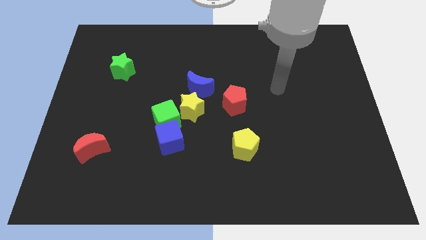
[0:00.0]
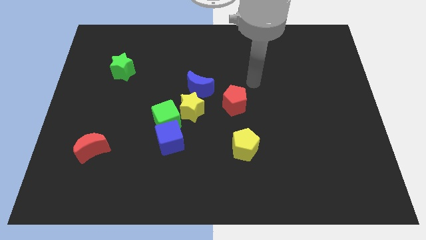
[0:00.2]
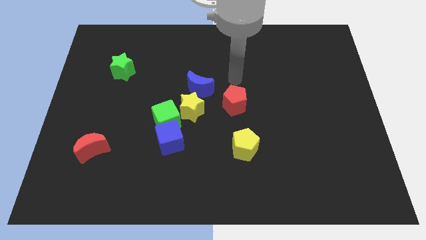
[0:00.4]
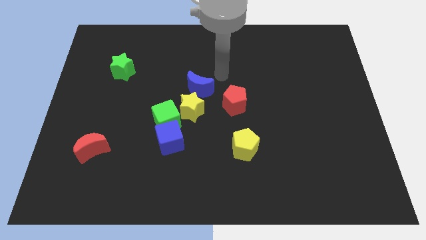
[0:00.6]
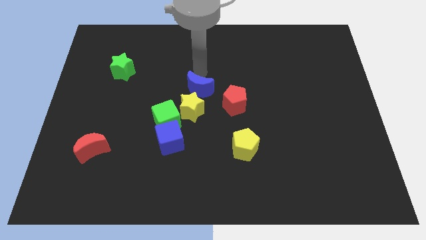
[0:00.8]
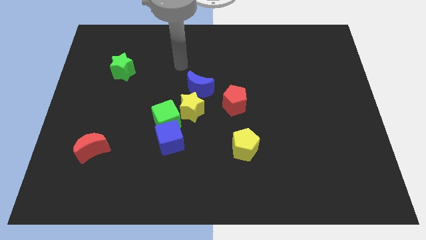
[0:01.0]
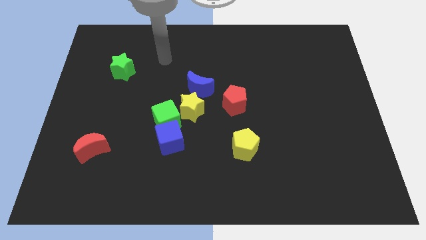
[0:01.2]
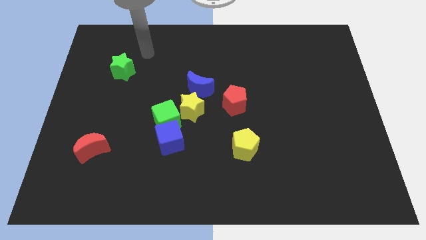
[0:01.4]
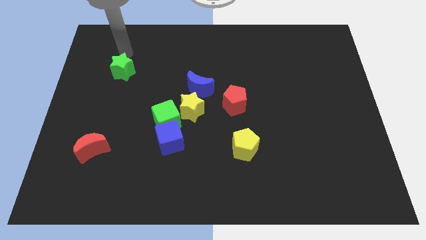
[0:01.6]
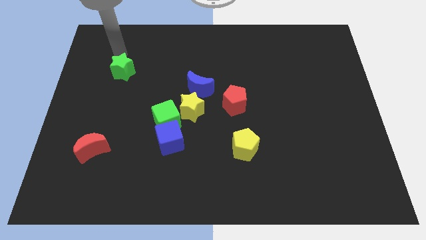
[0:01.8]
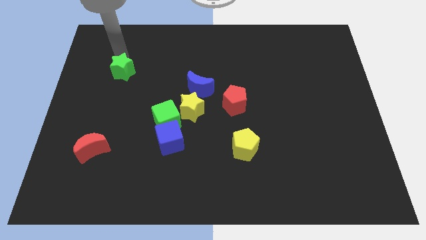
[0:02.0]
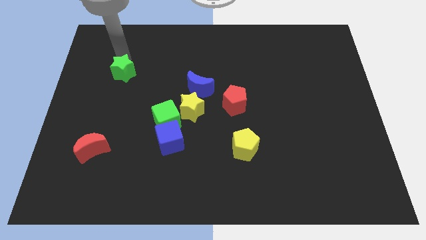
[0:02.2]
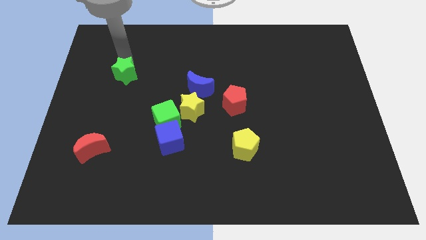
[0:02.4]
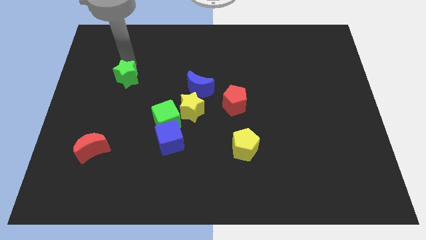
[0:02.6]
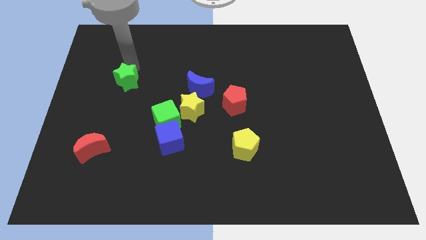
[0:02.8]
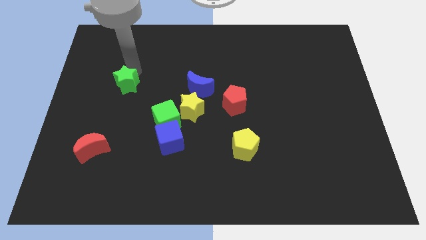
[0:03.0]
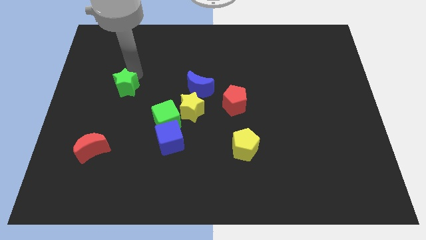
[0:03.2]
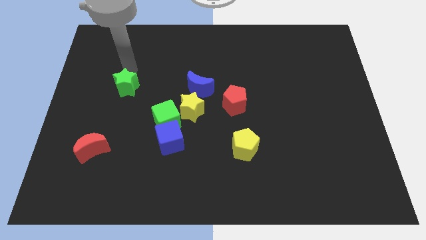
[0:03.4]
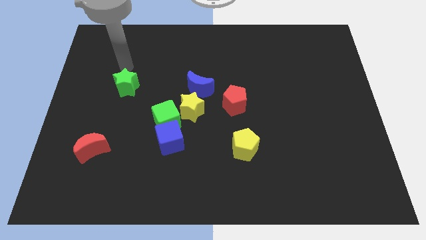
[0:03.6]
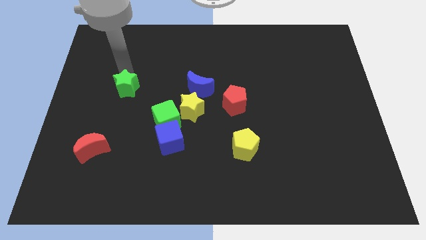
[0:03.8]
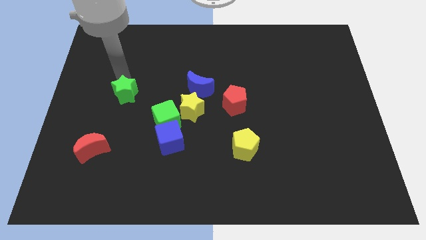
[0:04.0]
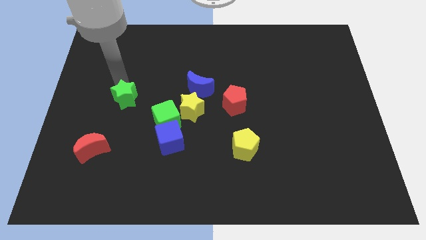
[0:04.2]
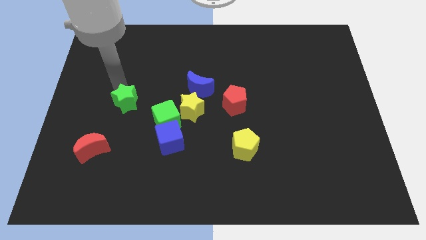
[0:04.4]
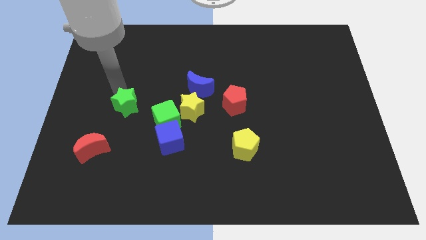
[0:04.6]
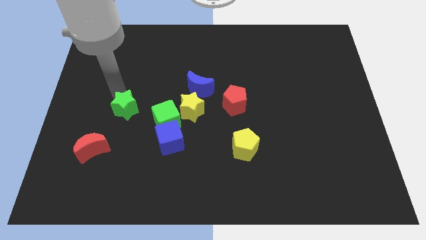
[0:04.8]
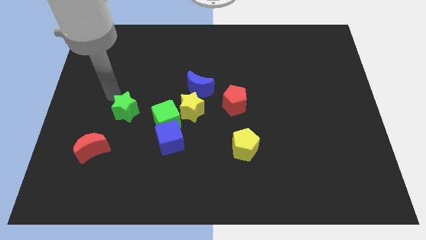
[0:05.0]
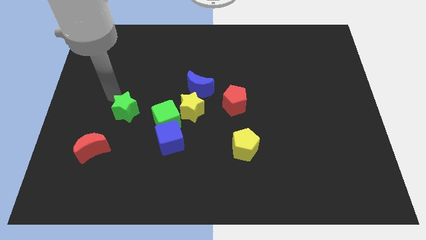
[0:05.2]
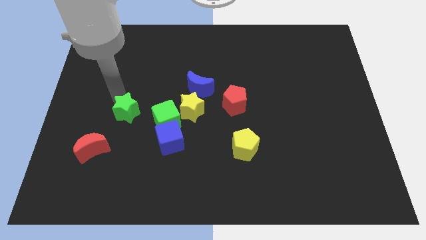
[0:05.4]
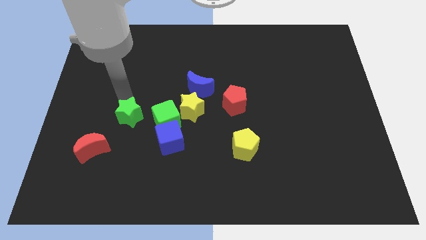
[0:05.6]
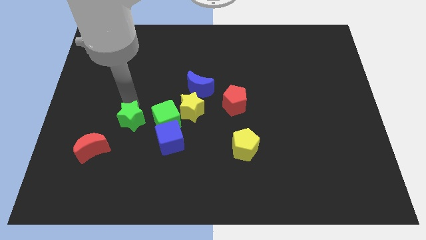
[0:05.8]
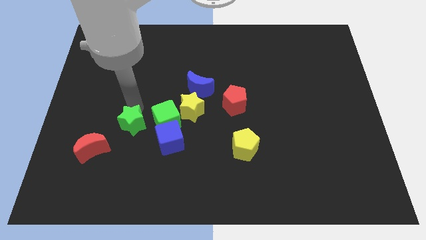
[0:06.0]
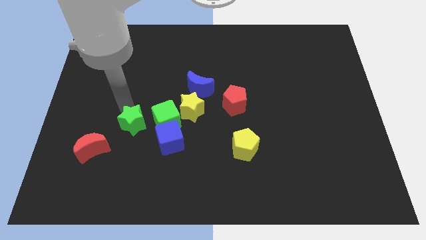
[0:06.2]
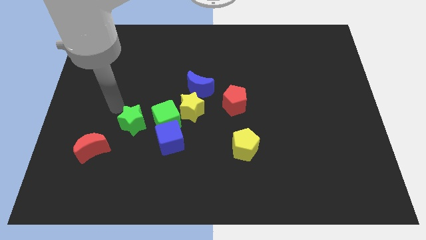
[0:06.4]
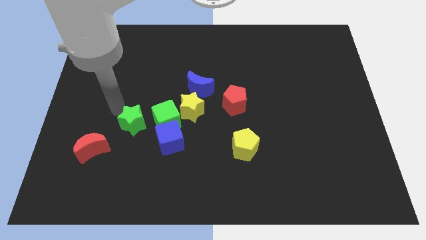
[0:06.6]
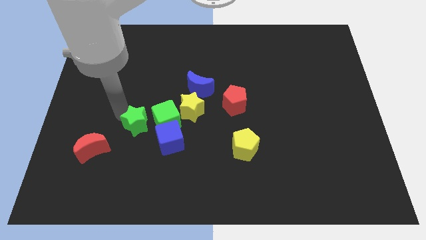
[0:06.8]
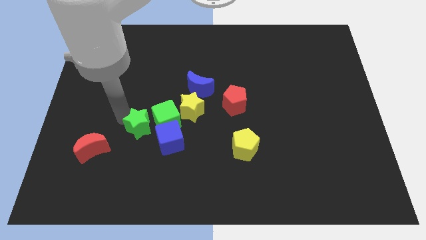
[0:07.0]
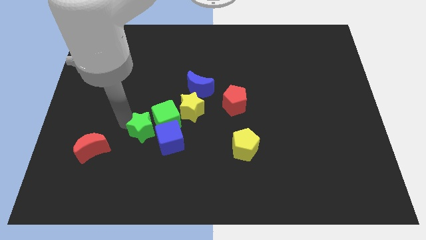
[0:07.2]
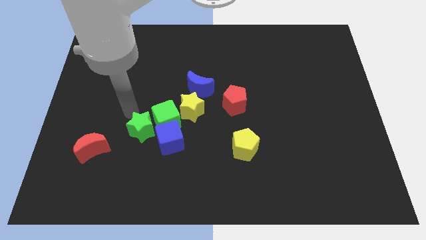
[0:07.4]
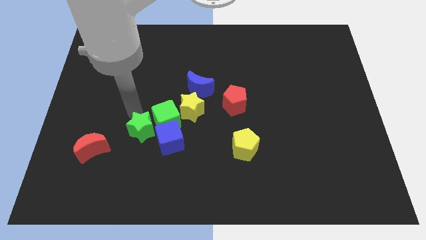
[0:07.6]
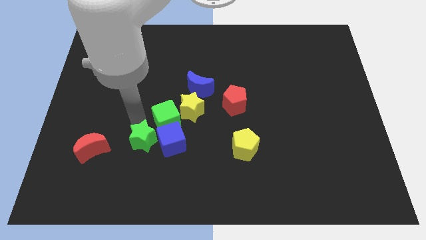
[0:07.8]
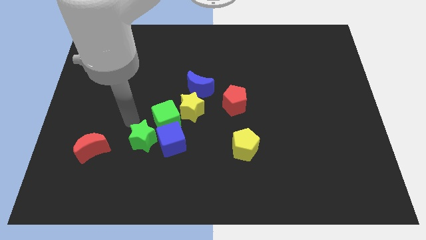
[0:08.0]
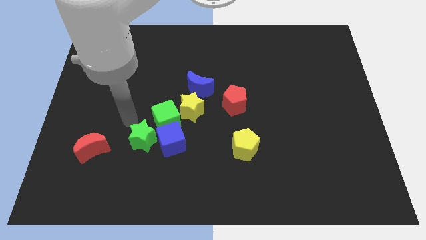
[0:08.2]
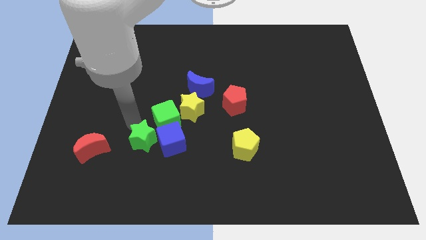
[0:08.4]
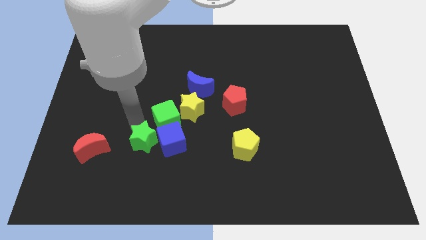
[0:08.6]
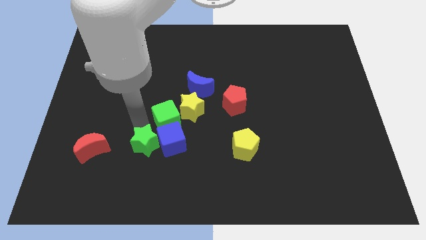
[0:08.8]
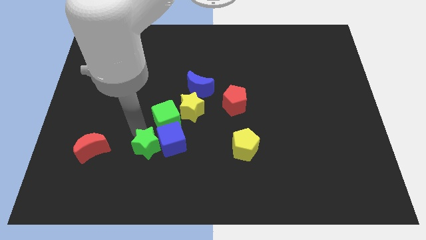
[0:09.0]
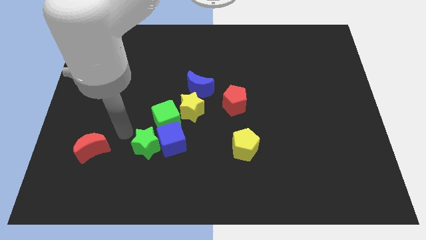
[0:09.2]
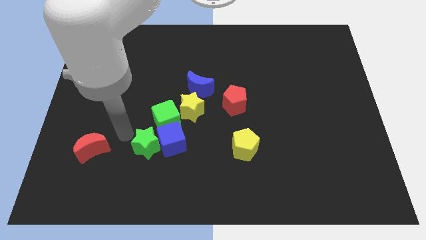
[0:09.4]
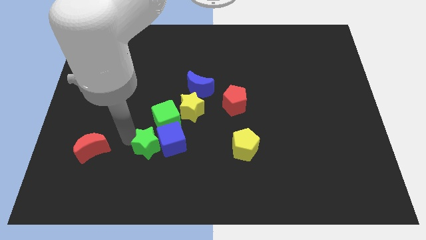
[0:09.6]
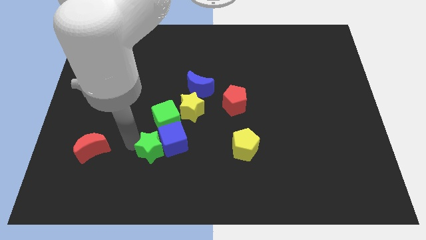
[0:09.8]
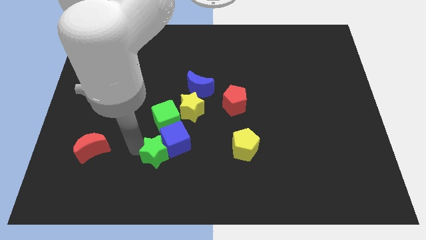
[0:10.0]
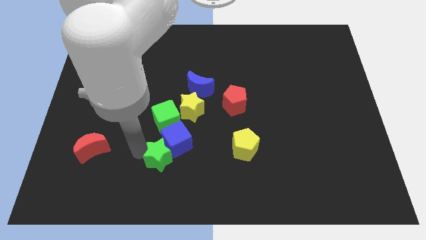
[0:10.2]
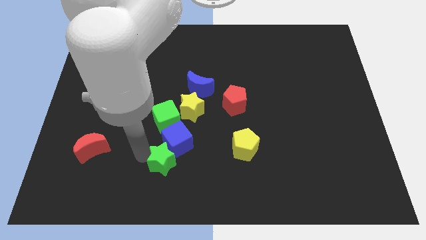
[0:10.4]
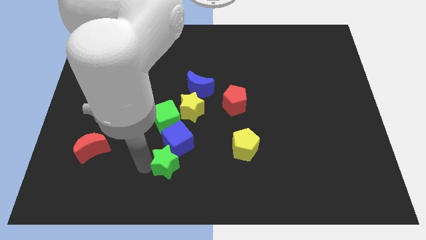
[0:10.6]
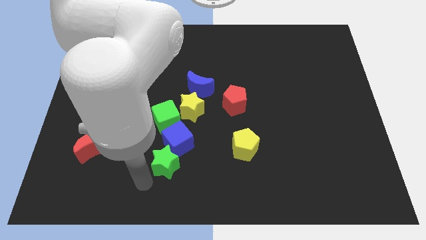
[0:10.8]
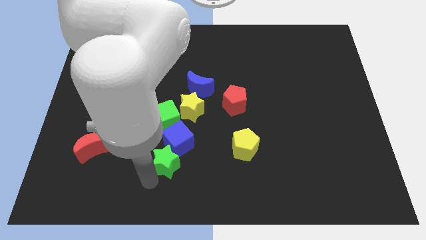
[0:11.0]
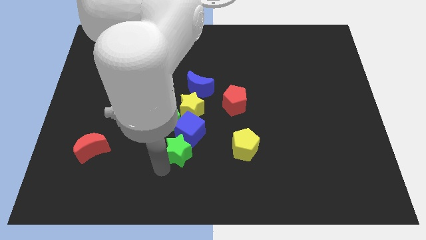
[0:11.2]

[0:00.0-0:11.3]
slide the green star diagonally down and to the right of the green cube

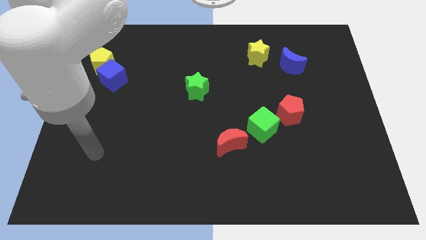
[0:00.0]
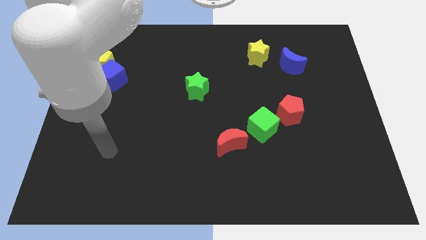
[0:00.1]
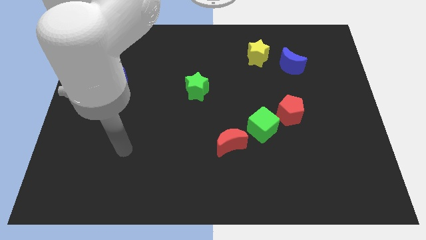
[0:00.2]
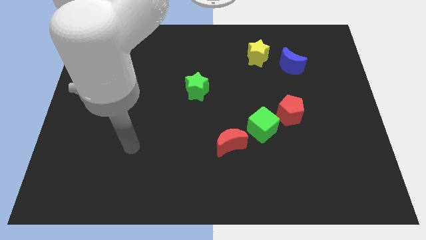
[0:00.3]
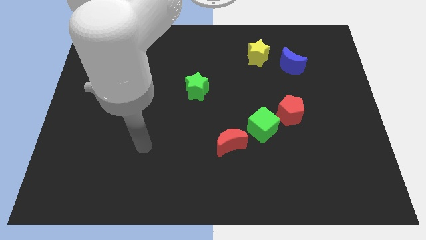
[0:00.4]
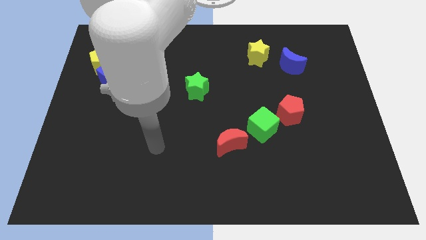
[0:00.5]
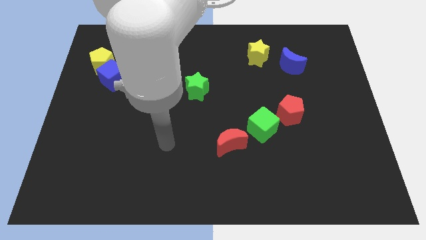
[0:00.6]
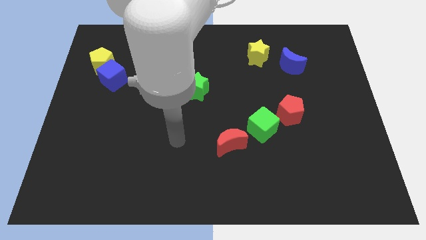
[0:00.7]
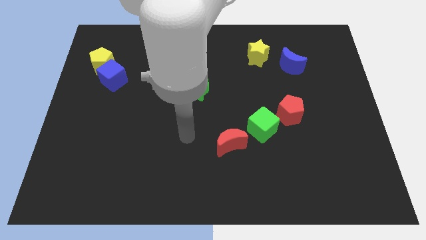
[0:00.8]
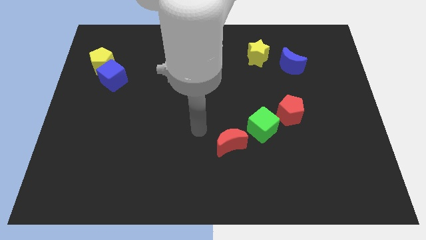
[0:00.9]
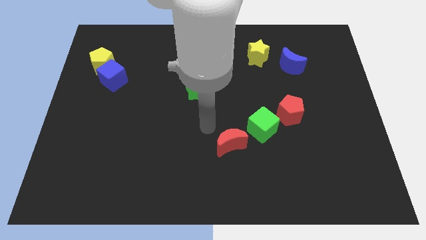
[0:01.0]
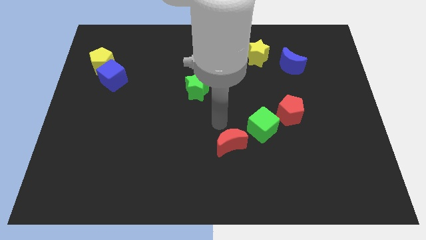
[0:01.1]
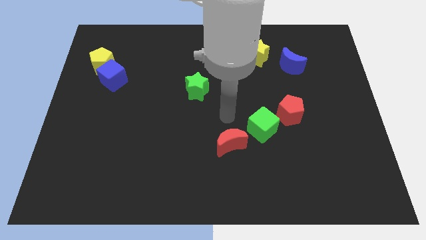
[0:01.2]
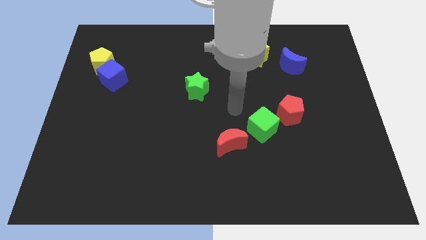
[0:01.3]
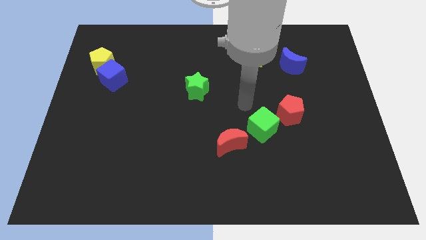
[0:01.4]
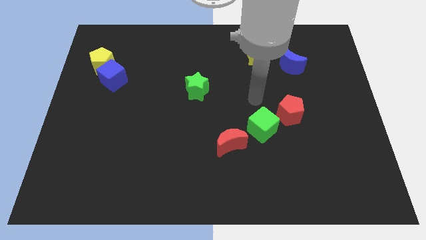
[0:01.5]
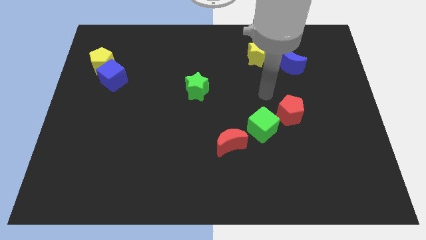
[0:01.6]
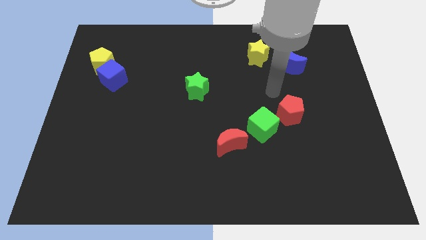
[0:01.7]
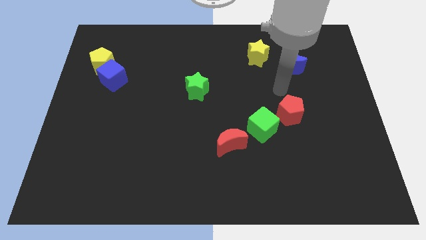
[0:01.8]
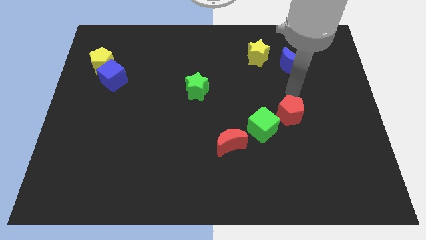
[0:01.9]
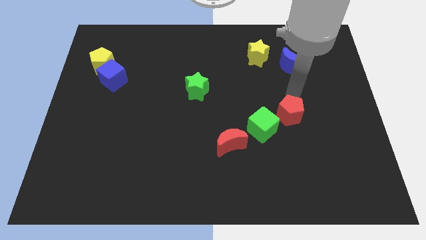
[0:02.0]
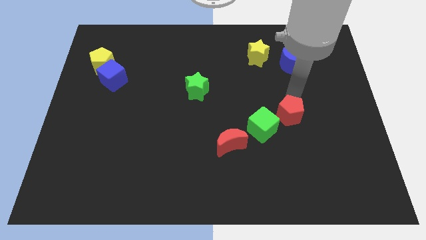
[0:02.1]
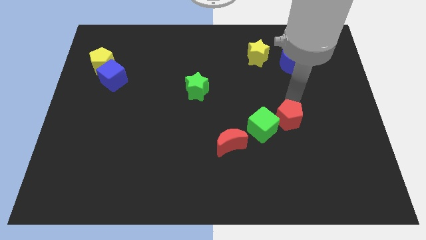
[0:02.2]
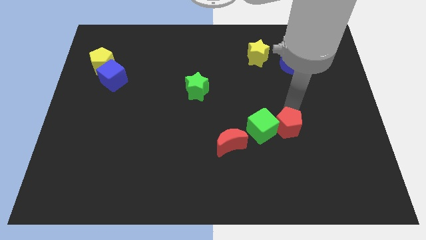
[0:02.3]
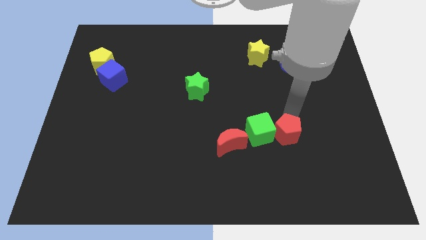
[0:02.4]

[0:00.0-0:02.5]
put the red pentagon just right of the red moon

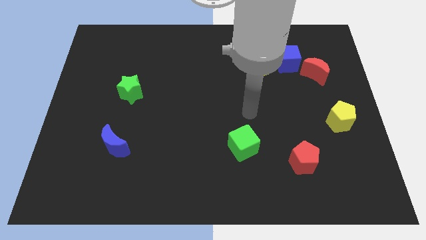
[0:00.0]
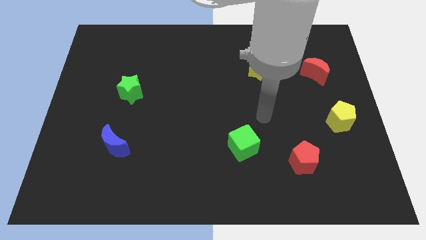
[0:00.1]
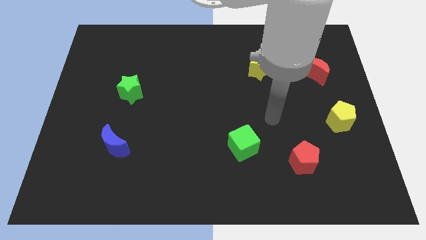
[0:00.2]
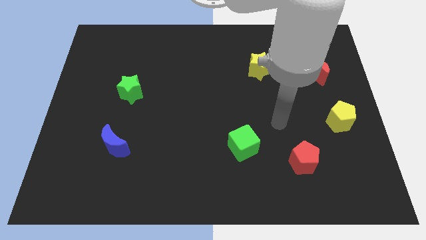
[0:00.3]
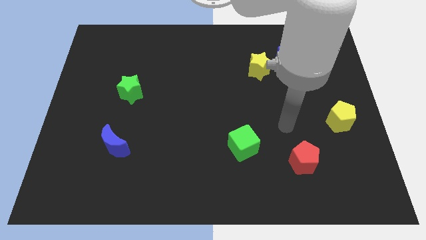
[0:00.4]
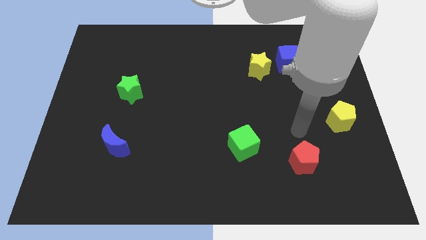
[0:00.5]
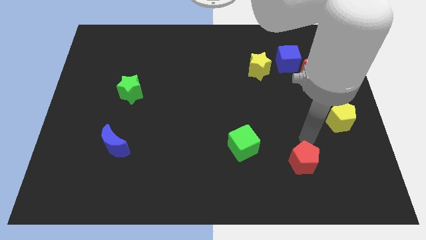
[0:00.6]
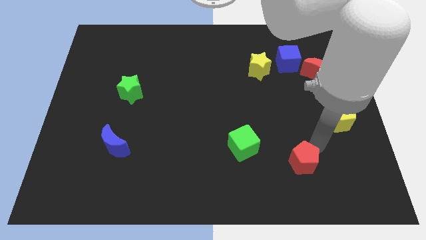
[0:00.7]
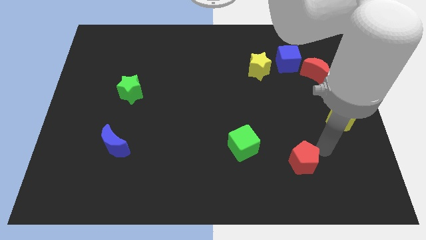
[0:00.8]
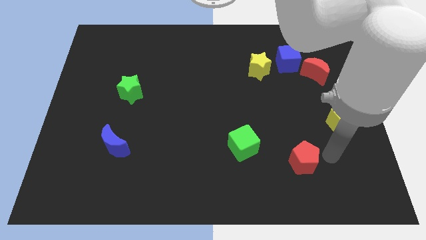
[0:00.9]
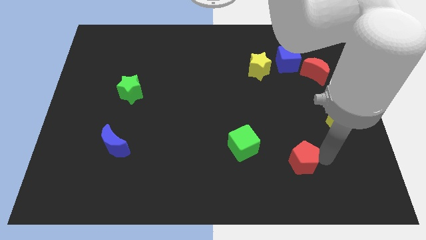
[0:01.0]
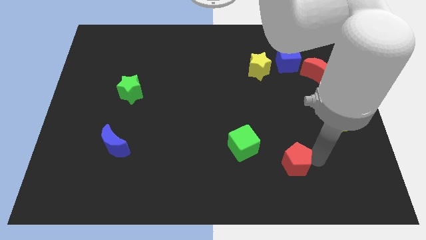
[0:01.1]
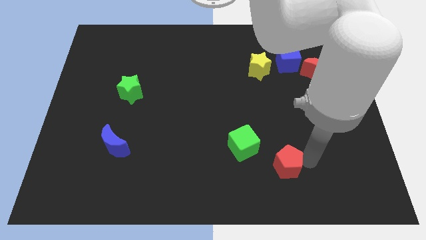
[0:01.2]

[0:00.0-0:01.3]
push the red pentagon diagonally down and to the right of the green cube
